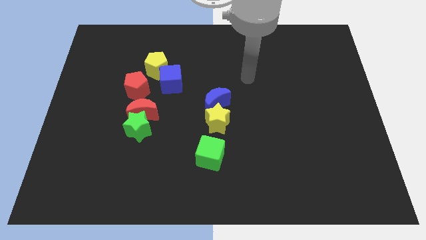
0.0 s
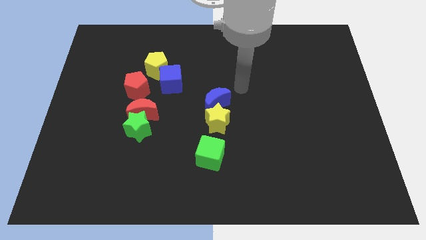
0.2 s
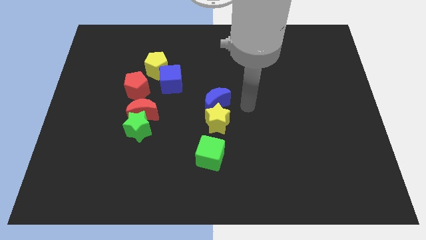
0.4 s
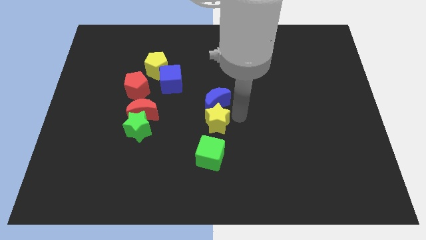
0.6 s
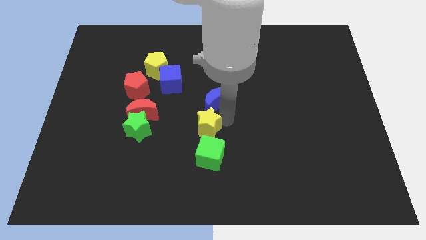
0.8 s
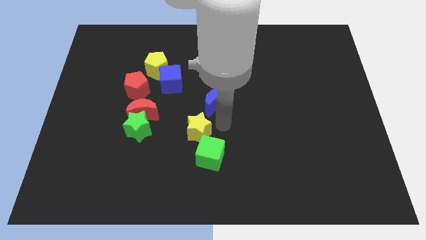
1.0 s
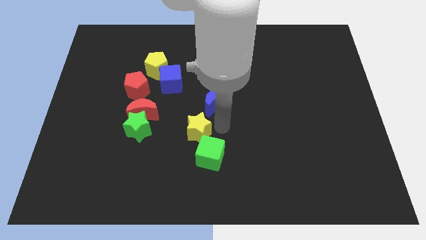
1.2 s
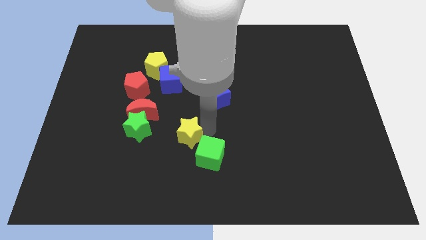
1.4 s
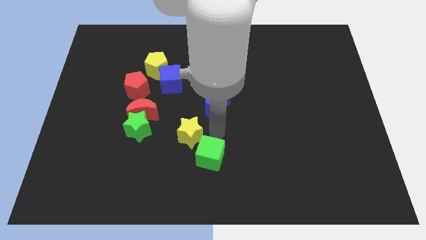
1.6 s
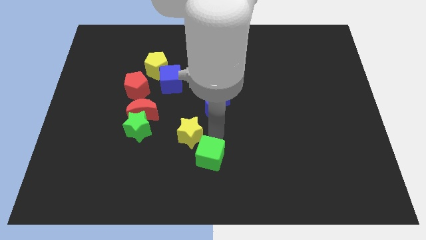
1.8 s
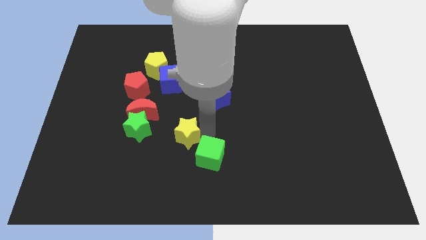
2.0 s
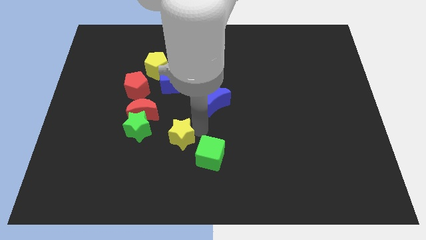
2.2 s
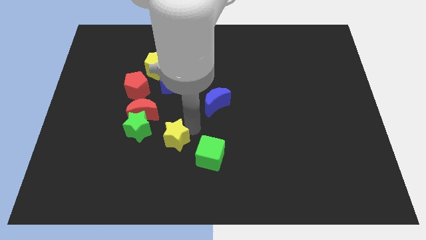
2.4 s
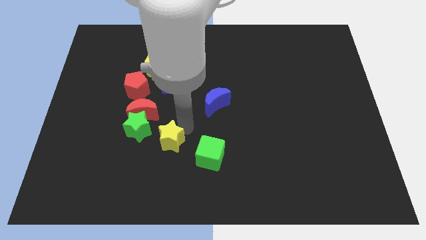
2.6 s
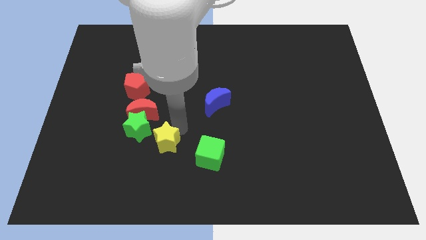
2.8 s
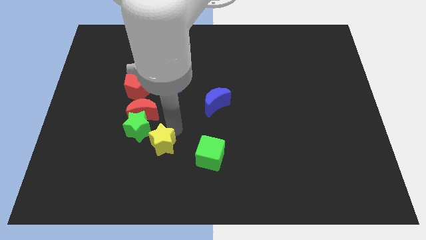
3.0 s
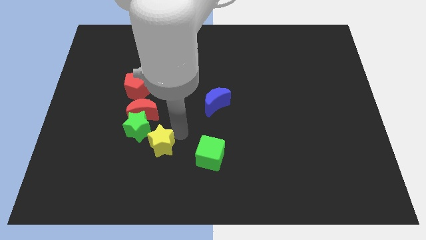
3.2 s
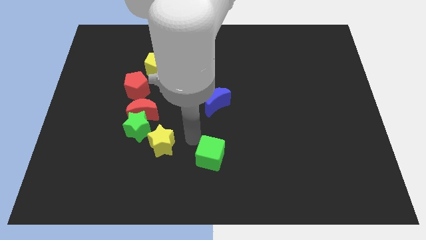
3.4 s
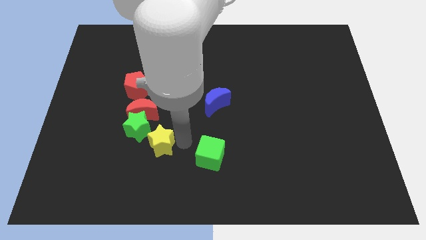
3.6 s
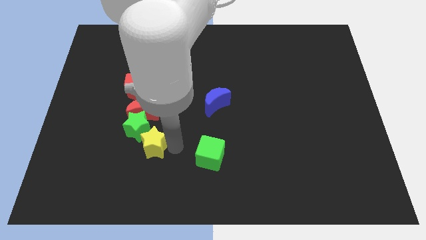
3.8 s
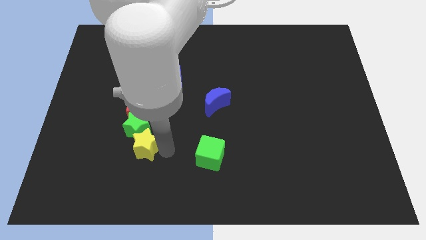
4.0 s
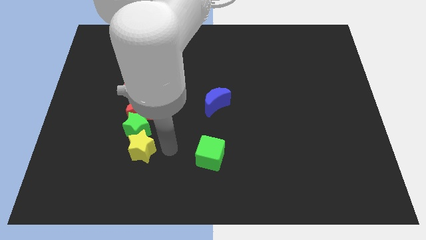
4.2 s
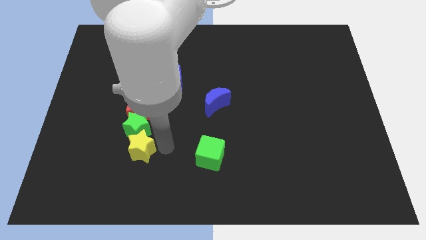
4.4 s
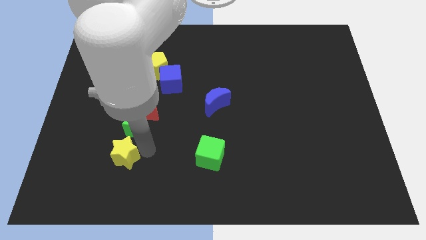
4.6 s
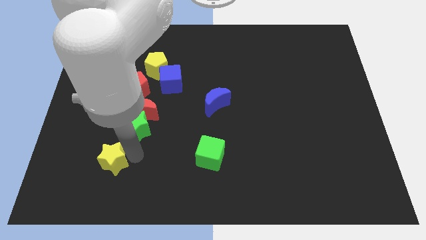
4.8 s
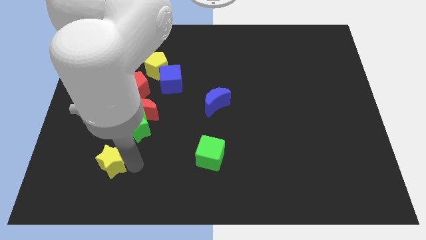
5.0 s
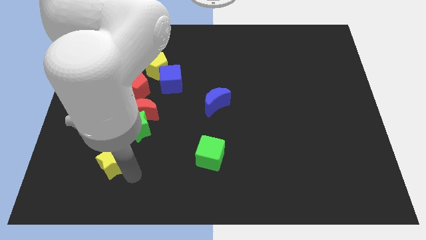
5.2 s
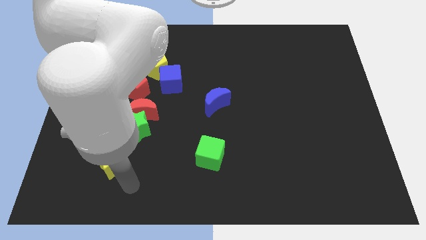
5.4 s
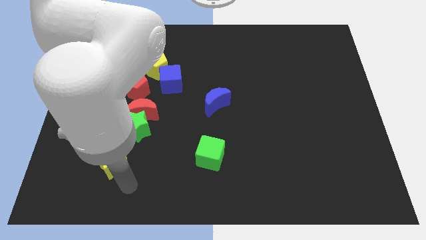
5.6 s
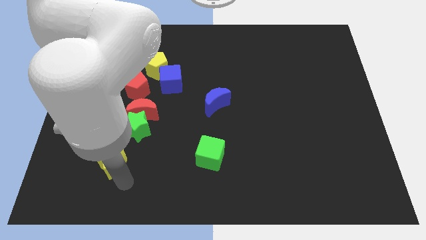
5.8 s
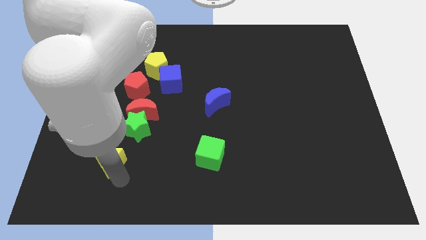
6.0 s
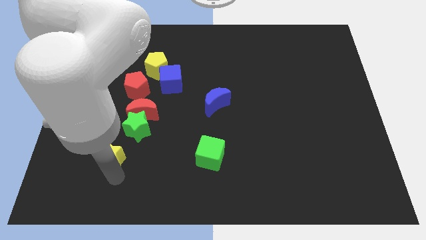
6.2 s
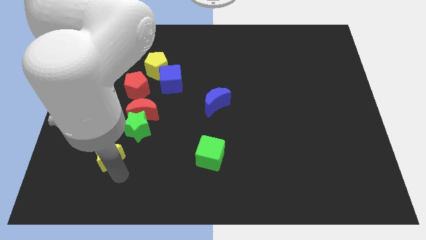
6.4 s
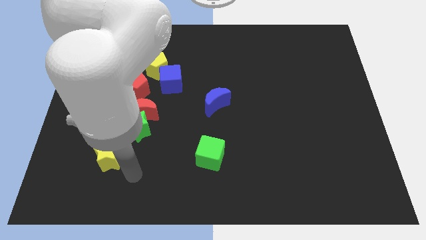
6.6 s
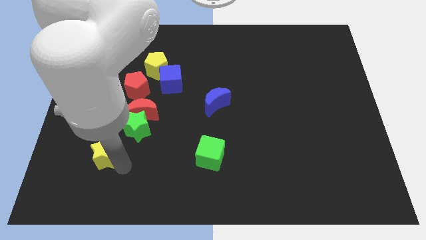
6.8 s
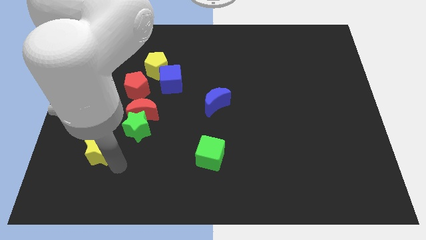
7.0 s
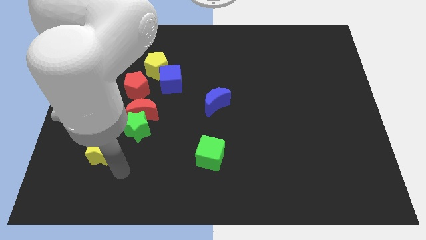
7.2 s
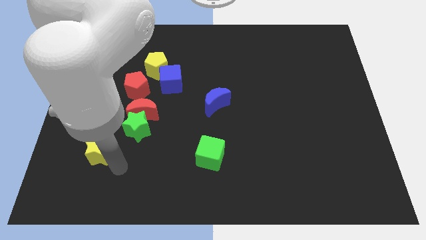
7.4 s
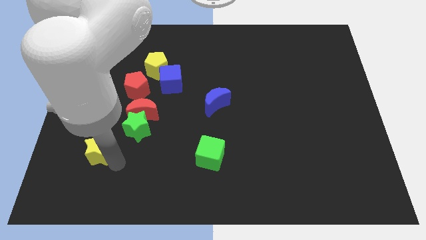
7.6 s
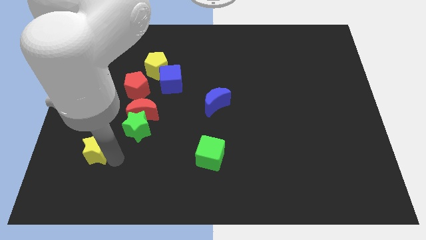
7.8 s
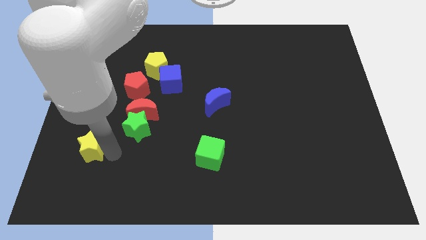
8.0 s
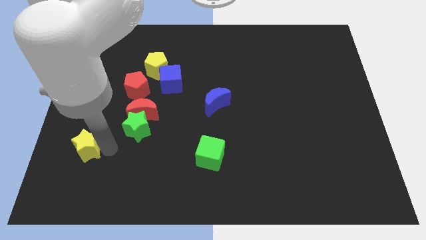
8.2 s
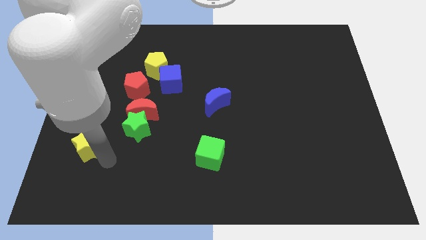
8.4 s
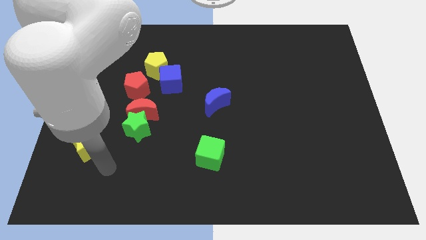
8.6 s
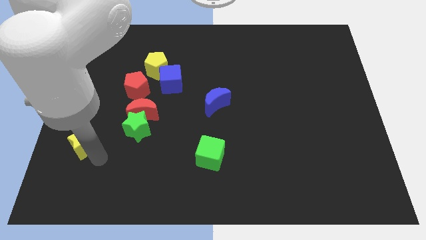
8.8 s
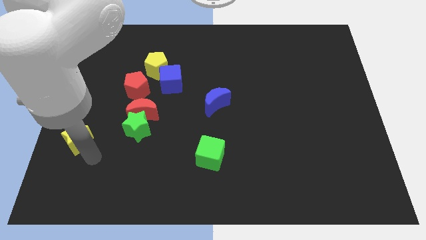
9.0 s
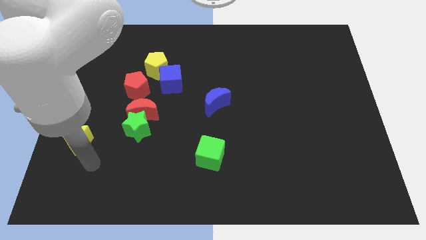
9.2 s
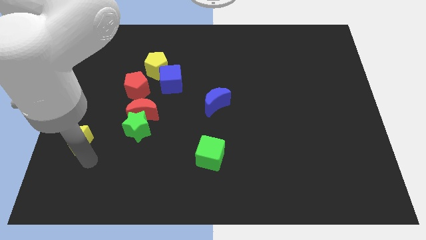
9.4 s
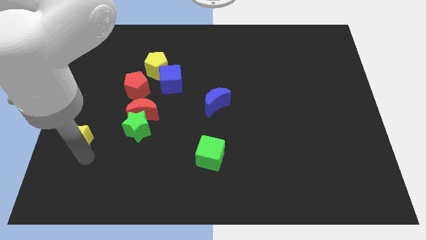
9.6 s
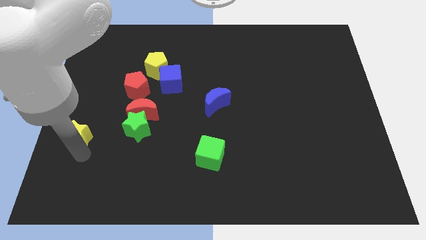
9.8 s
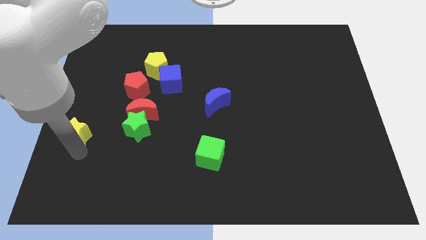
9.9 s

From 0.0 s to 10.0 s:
slide the yellow star to the center left

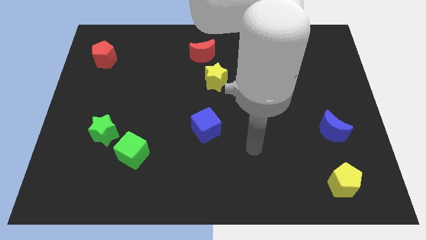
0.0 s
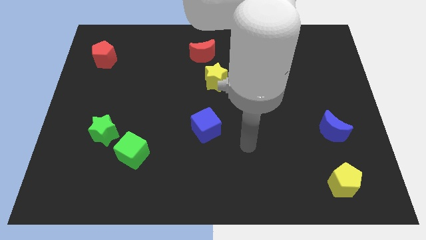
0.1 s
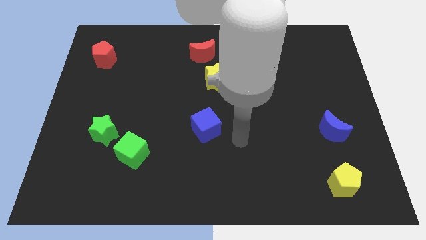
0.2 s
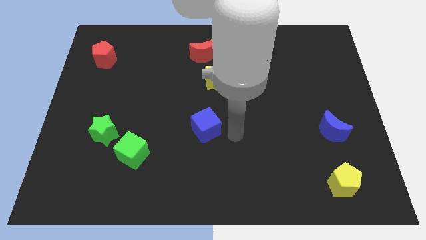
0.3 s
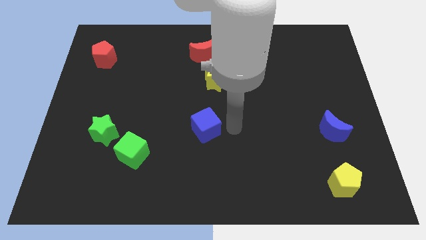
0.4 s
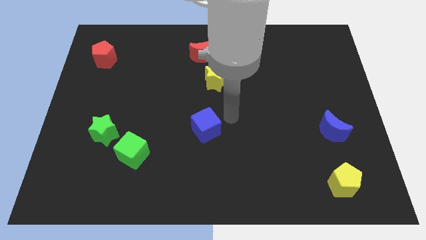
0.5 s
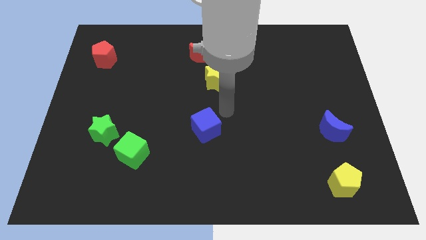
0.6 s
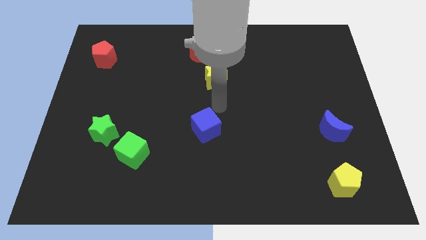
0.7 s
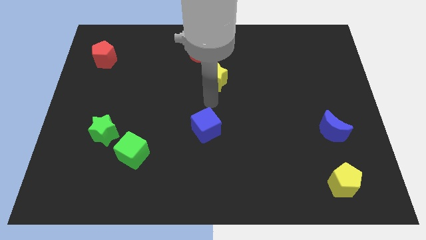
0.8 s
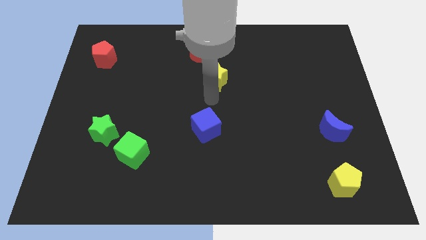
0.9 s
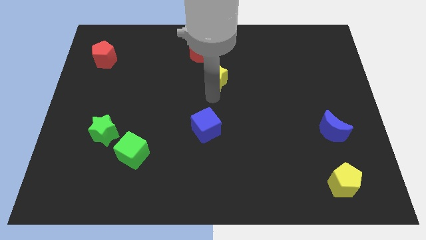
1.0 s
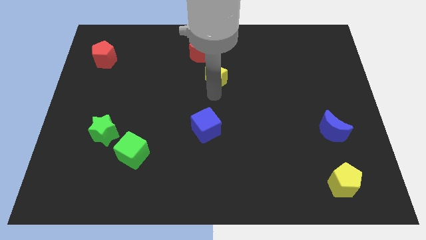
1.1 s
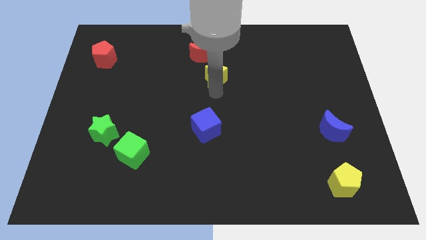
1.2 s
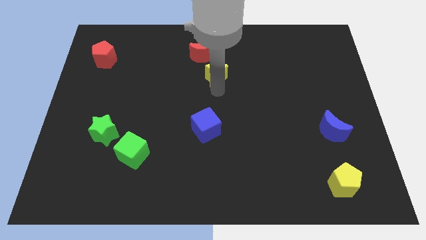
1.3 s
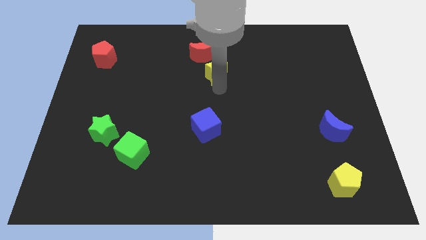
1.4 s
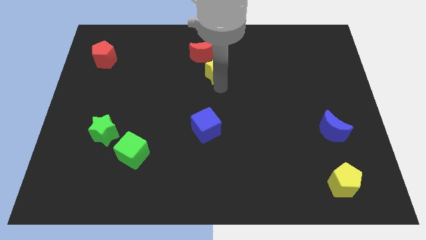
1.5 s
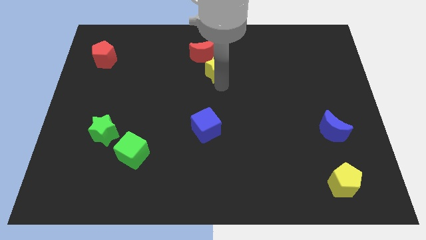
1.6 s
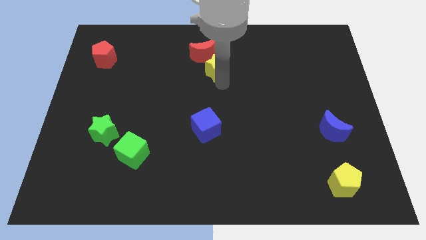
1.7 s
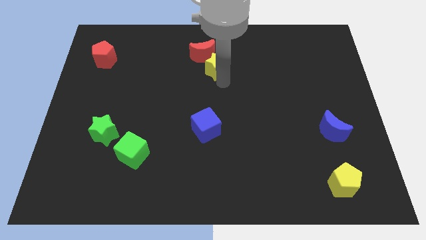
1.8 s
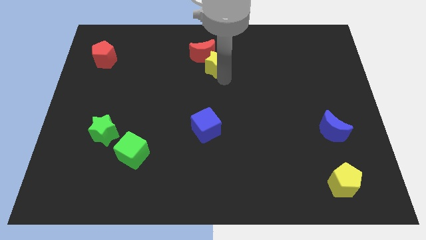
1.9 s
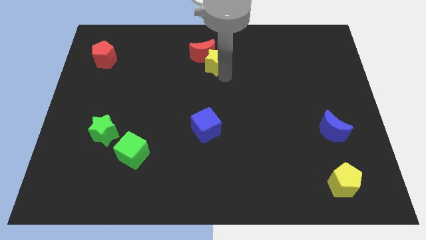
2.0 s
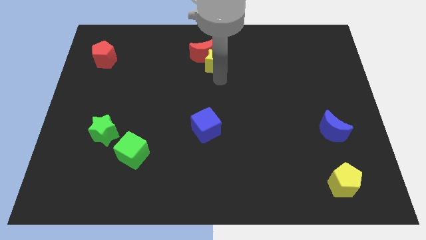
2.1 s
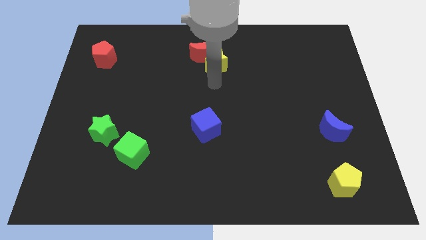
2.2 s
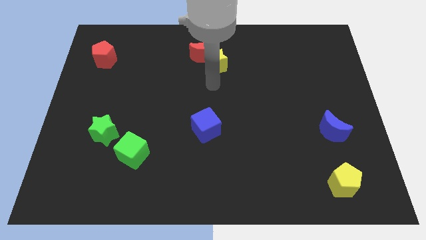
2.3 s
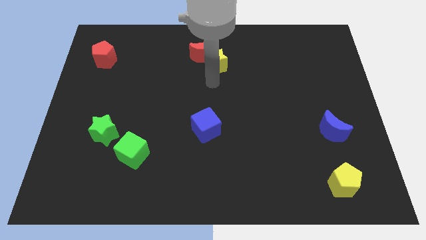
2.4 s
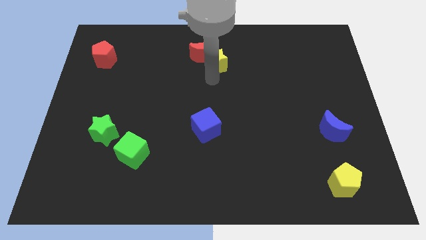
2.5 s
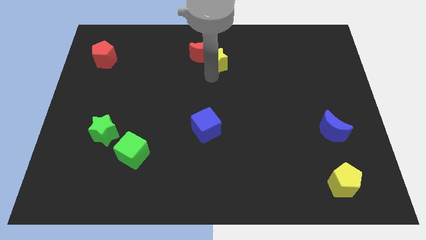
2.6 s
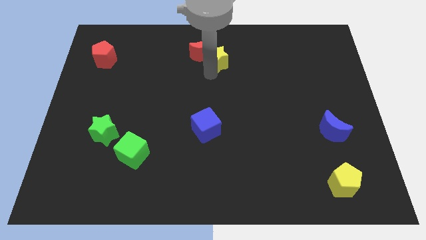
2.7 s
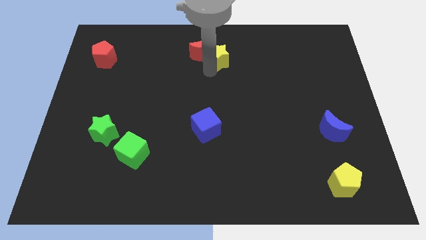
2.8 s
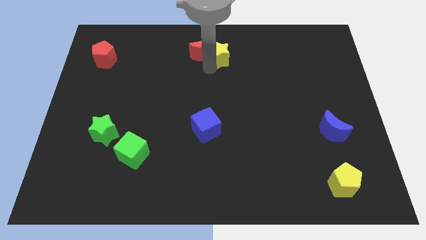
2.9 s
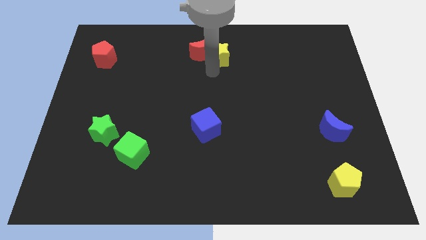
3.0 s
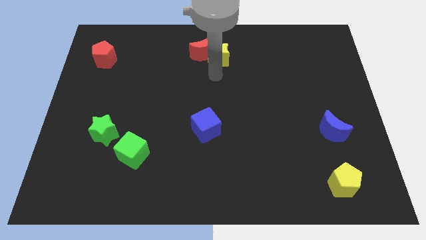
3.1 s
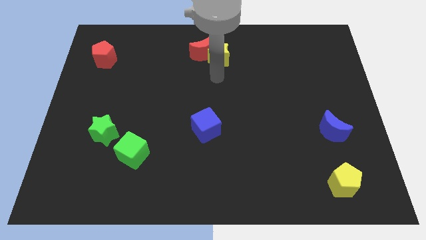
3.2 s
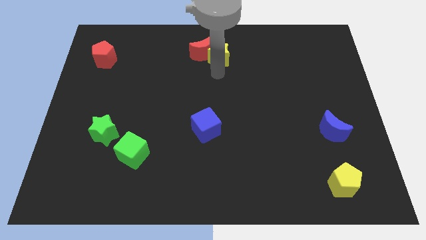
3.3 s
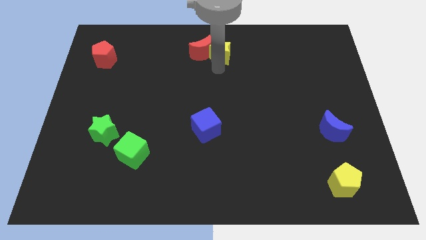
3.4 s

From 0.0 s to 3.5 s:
put the yellow star to the towards your base
